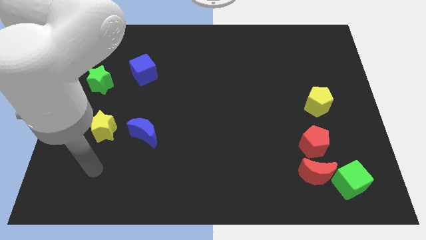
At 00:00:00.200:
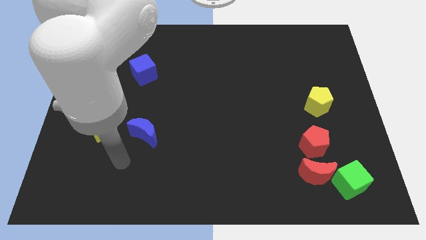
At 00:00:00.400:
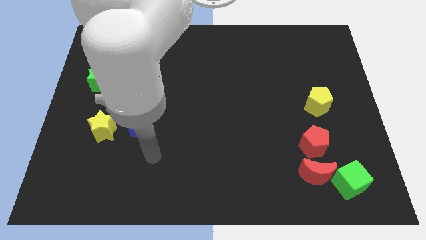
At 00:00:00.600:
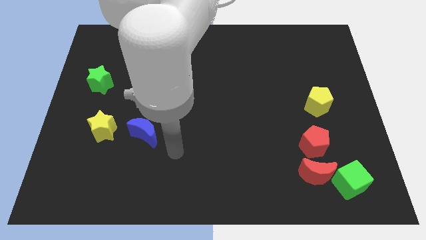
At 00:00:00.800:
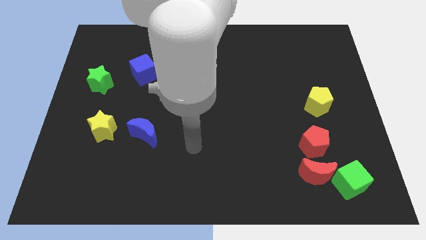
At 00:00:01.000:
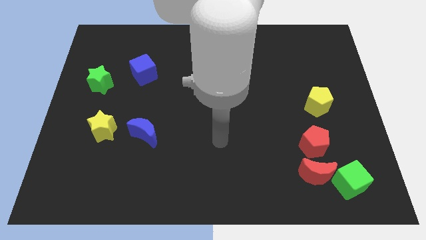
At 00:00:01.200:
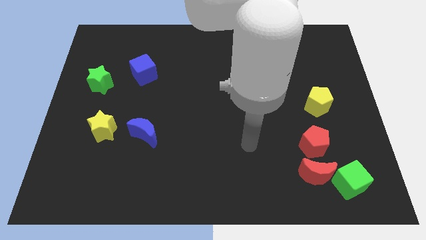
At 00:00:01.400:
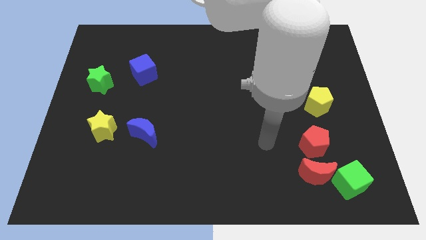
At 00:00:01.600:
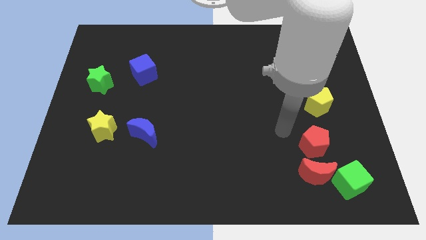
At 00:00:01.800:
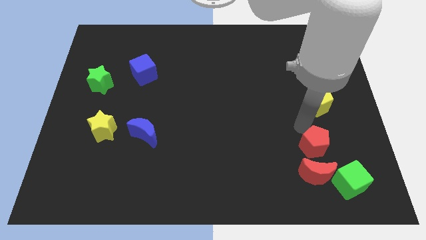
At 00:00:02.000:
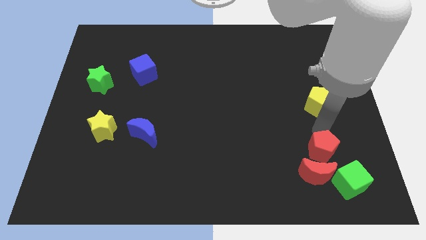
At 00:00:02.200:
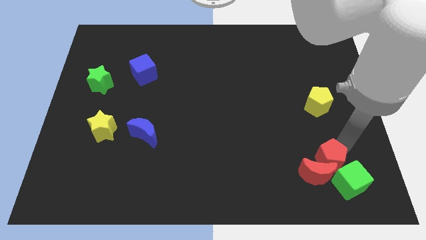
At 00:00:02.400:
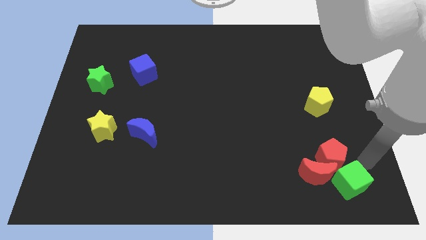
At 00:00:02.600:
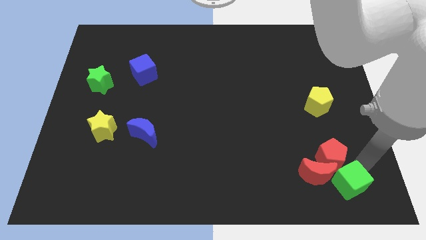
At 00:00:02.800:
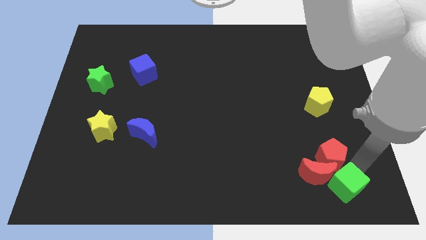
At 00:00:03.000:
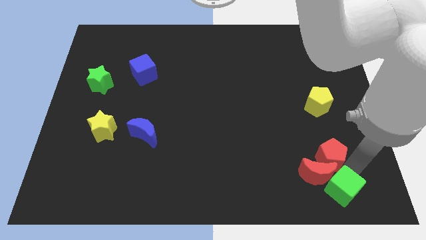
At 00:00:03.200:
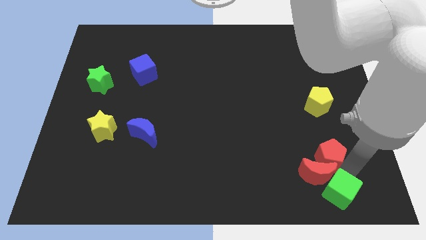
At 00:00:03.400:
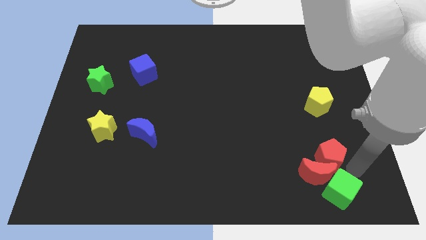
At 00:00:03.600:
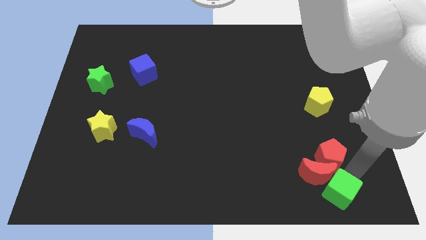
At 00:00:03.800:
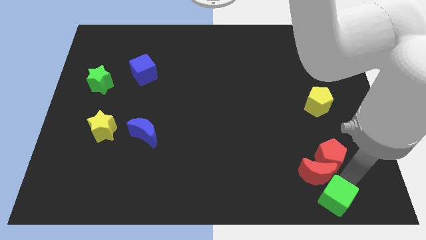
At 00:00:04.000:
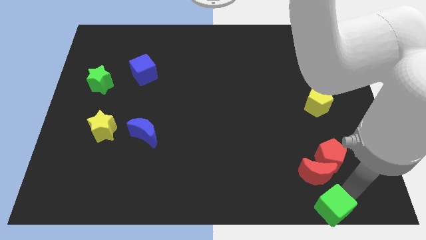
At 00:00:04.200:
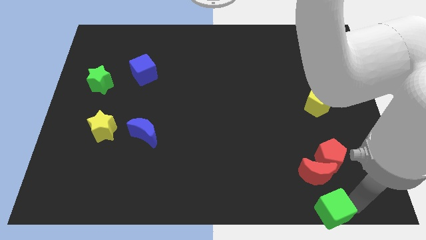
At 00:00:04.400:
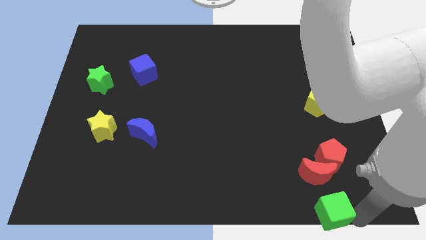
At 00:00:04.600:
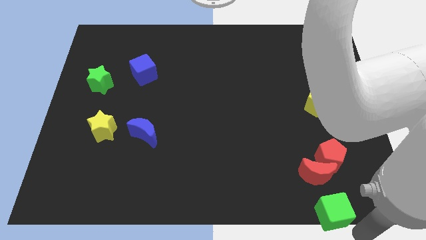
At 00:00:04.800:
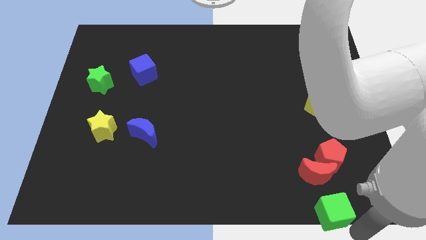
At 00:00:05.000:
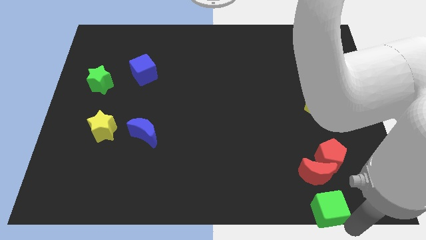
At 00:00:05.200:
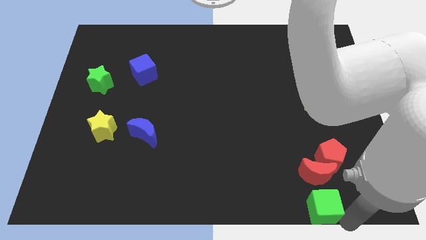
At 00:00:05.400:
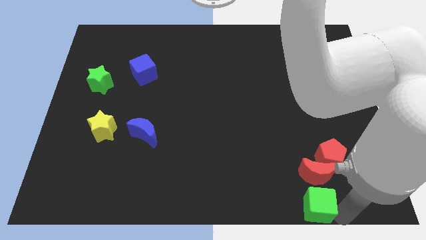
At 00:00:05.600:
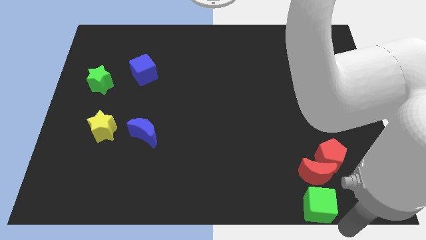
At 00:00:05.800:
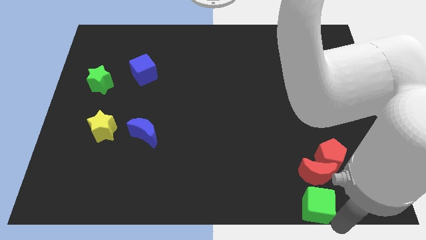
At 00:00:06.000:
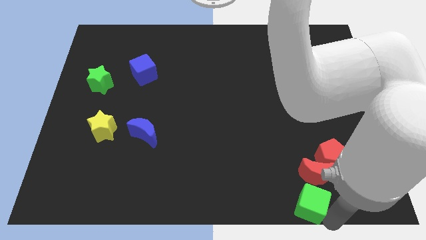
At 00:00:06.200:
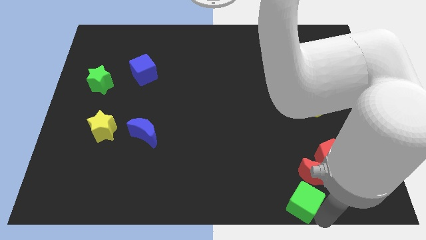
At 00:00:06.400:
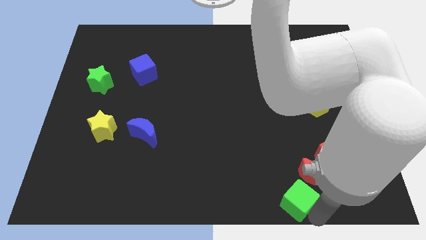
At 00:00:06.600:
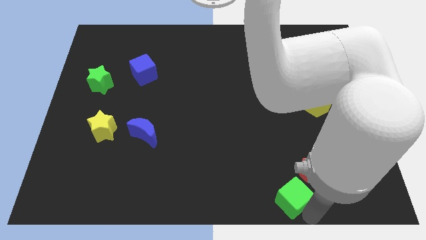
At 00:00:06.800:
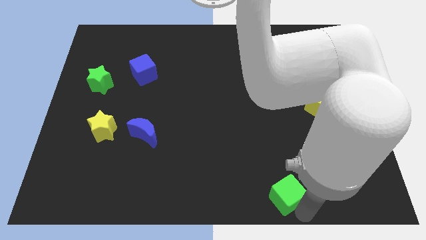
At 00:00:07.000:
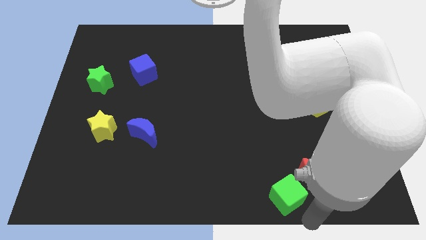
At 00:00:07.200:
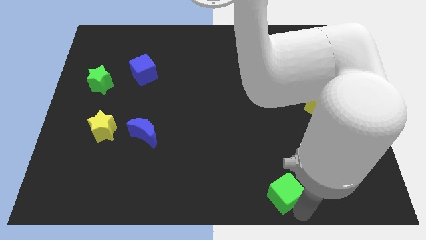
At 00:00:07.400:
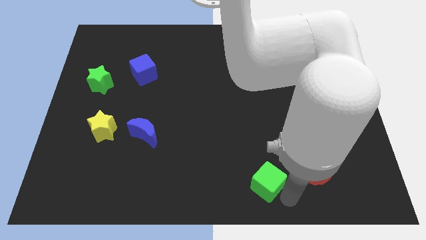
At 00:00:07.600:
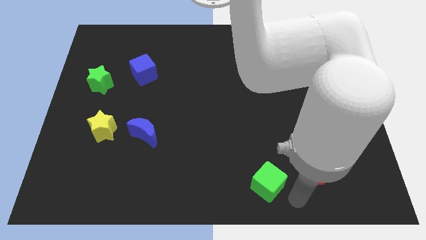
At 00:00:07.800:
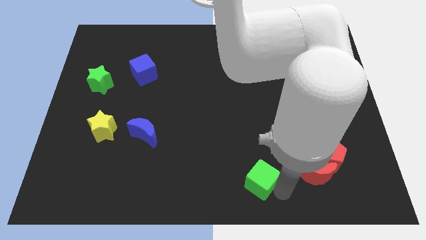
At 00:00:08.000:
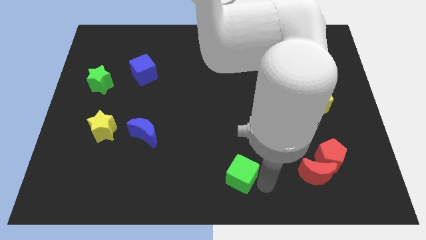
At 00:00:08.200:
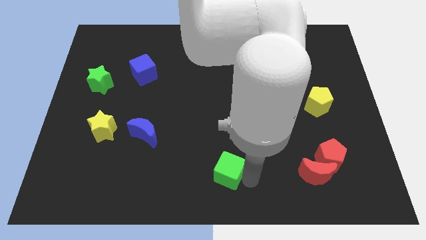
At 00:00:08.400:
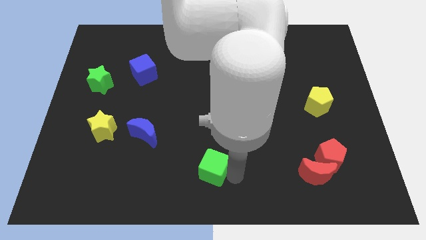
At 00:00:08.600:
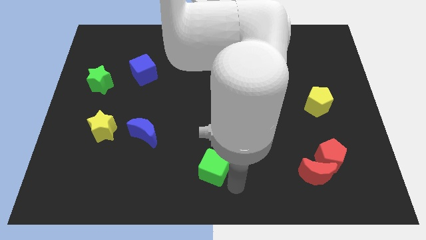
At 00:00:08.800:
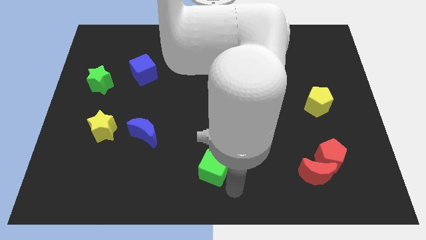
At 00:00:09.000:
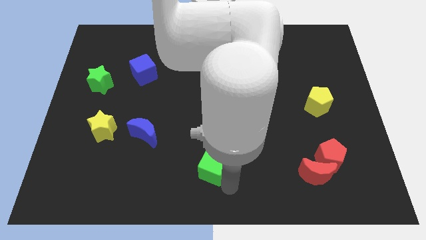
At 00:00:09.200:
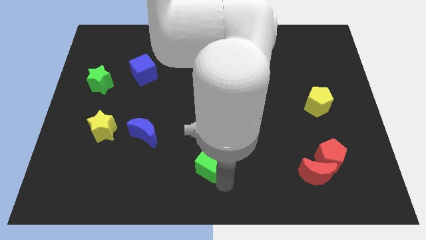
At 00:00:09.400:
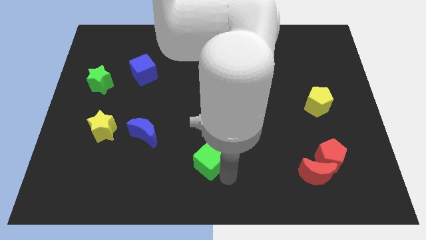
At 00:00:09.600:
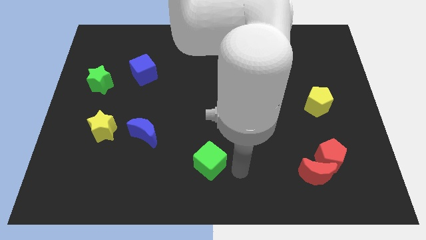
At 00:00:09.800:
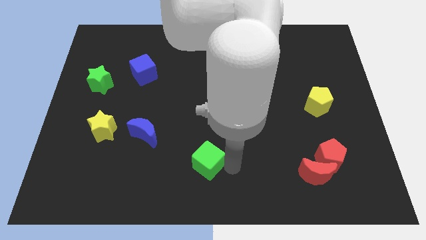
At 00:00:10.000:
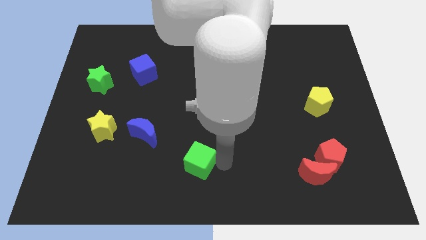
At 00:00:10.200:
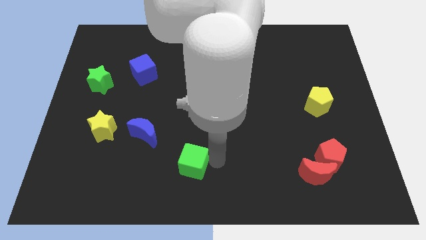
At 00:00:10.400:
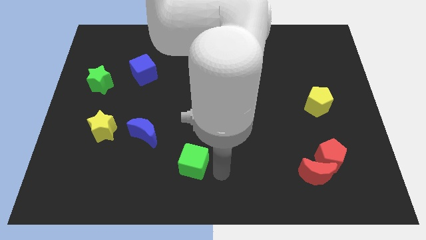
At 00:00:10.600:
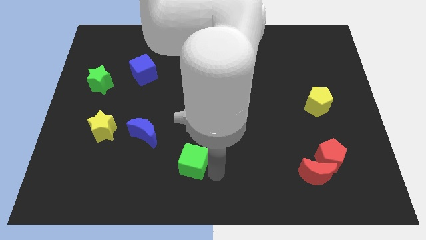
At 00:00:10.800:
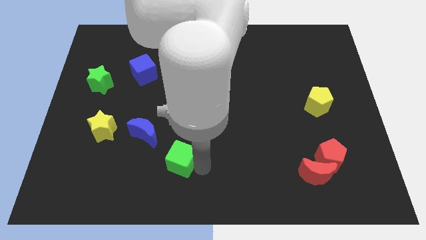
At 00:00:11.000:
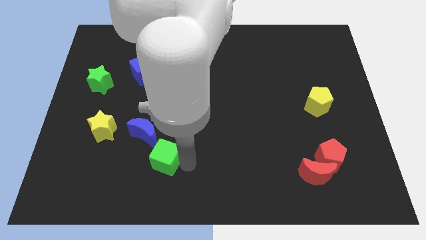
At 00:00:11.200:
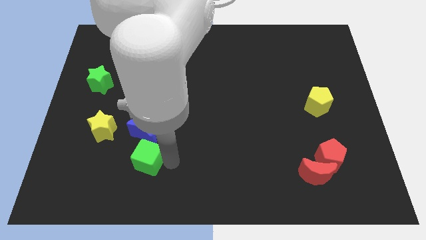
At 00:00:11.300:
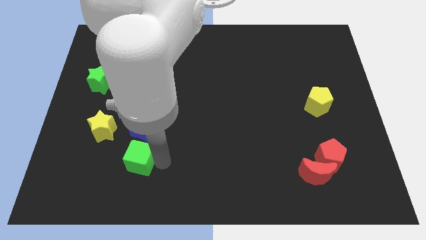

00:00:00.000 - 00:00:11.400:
put the green cube to the bottom right side of the yellow star
